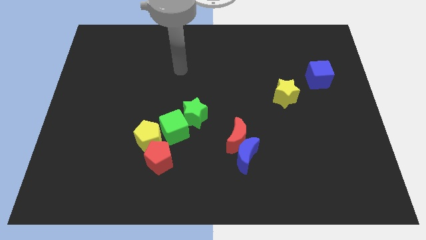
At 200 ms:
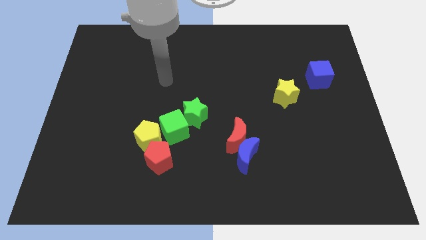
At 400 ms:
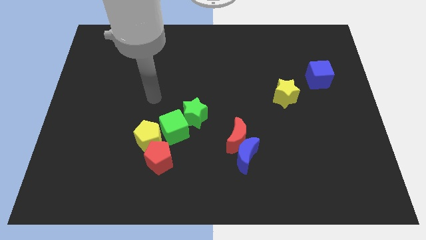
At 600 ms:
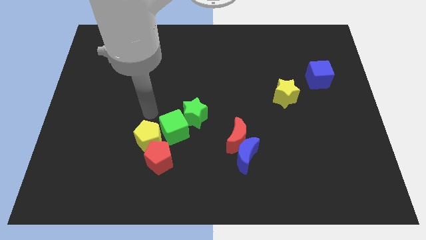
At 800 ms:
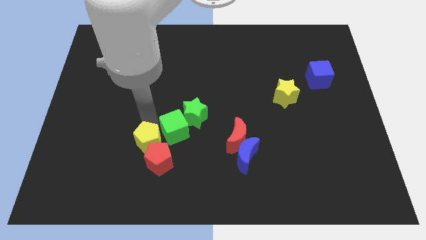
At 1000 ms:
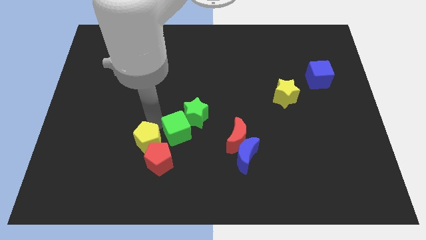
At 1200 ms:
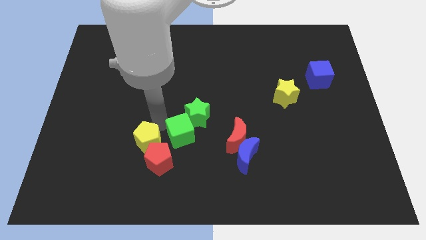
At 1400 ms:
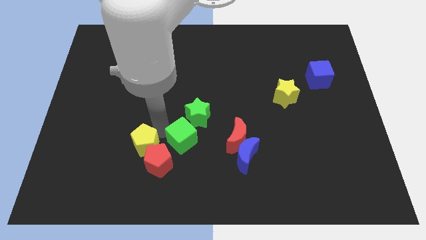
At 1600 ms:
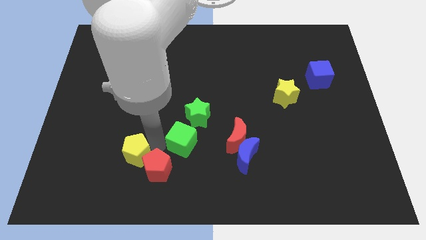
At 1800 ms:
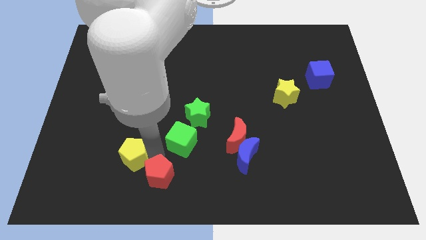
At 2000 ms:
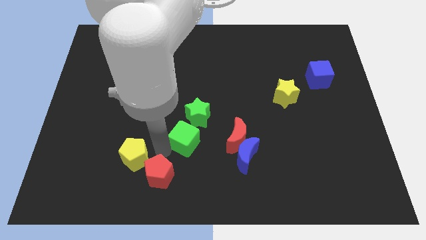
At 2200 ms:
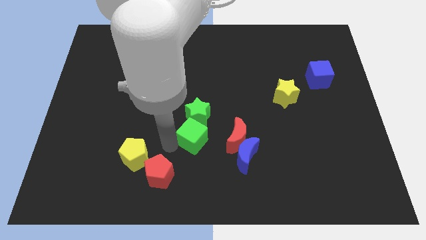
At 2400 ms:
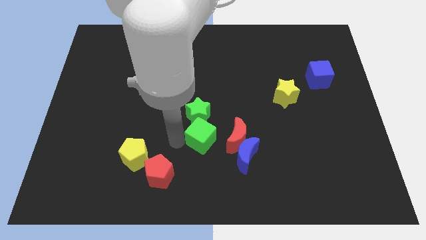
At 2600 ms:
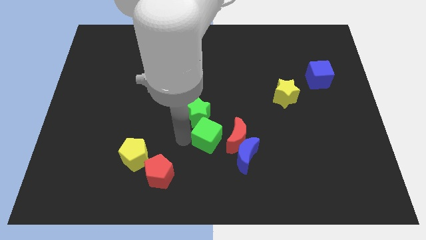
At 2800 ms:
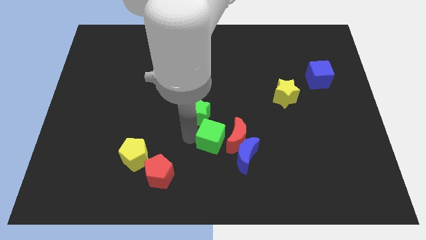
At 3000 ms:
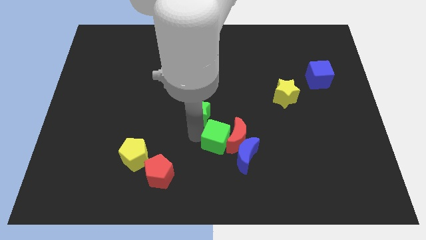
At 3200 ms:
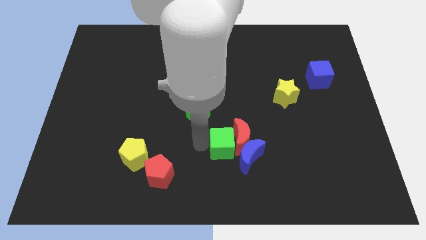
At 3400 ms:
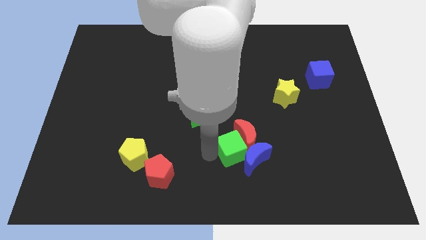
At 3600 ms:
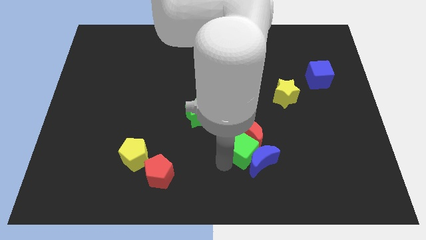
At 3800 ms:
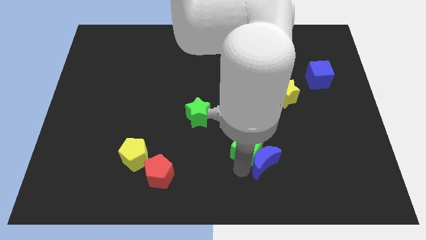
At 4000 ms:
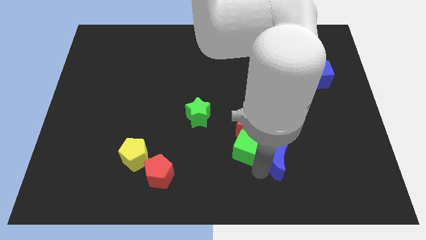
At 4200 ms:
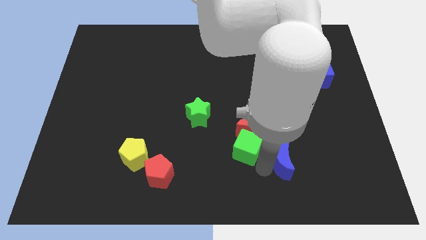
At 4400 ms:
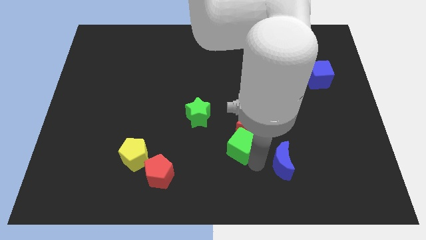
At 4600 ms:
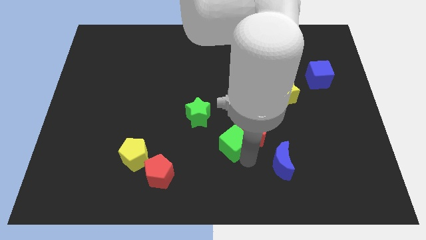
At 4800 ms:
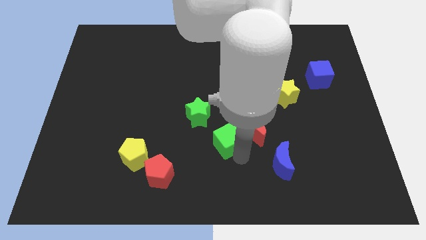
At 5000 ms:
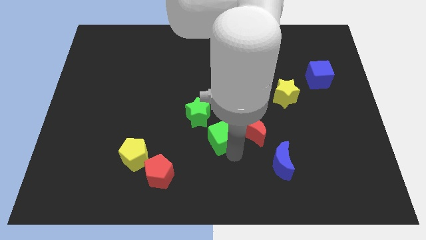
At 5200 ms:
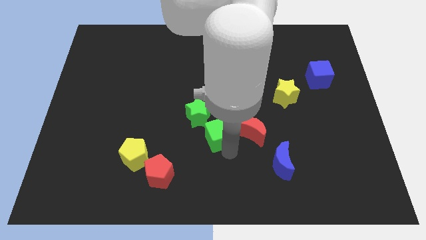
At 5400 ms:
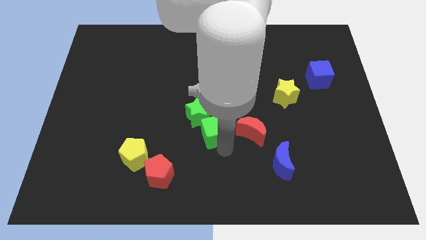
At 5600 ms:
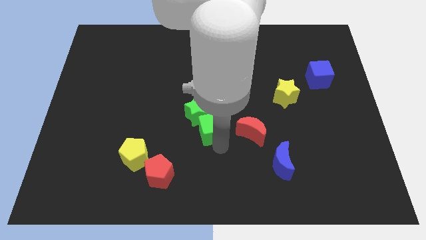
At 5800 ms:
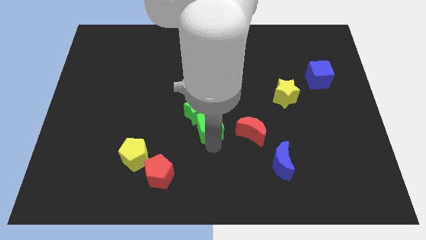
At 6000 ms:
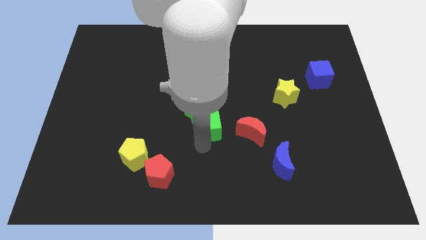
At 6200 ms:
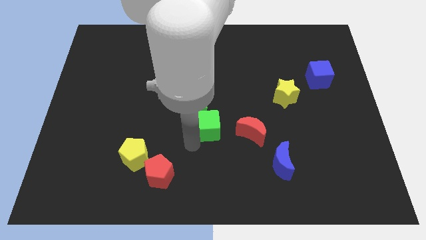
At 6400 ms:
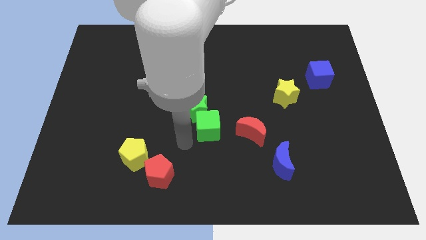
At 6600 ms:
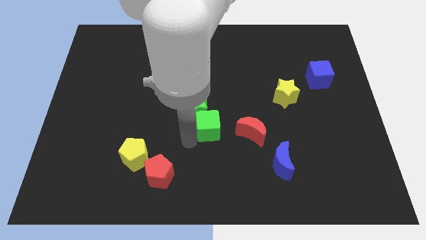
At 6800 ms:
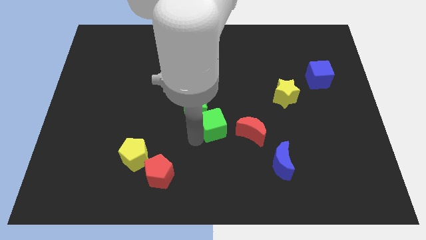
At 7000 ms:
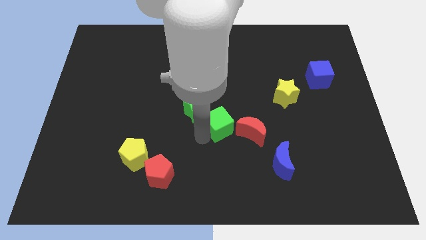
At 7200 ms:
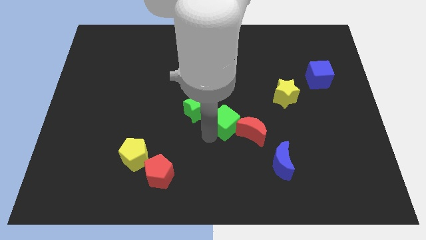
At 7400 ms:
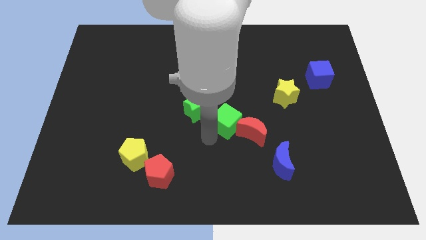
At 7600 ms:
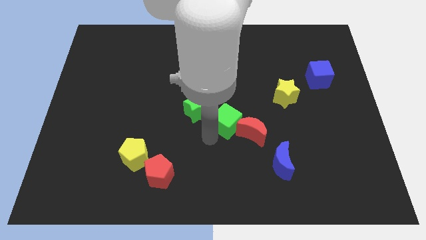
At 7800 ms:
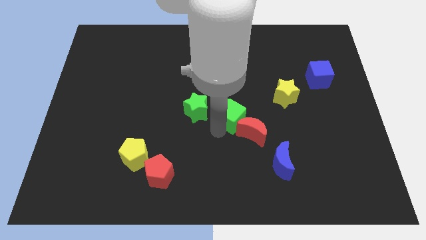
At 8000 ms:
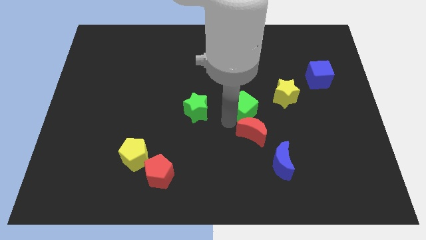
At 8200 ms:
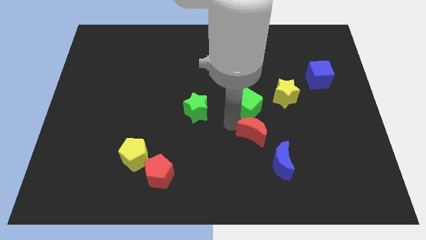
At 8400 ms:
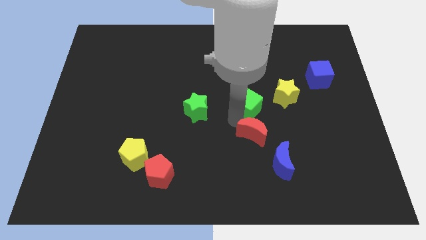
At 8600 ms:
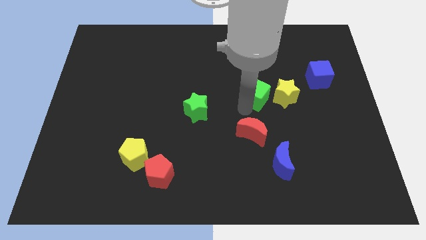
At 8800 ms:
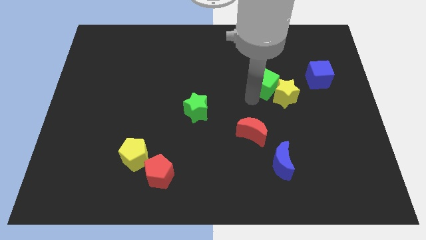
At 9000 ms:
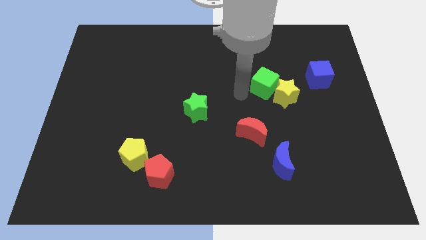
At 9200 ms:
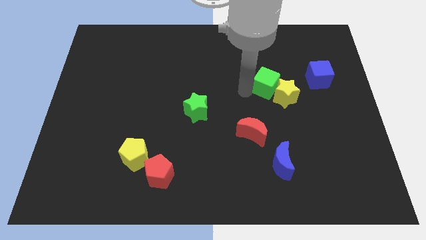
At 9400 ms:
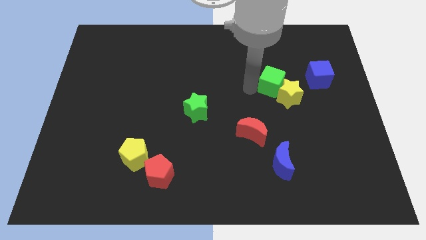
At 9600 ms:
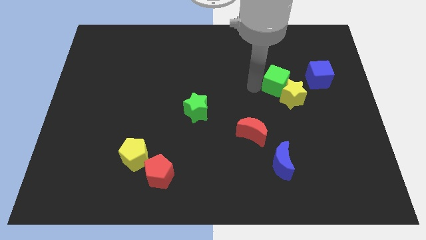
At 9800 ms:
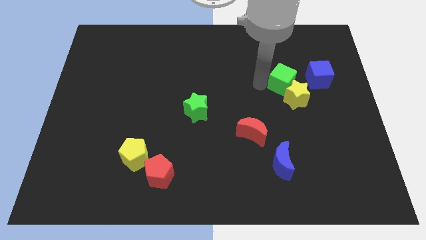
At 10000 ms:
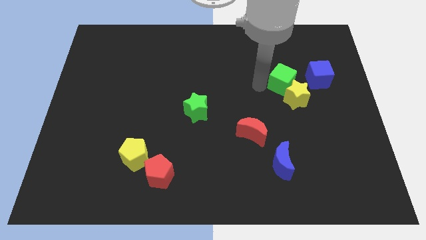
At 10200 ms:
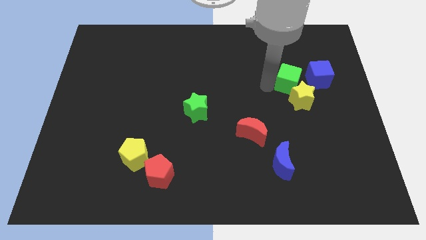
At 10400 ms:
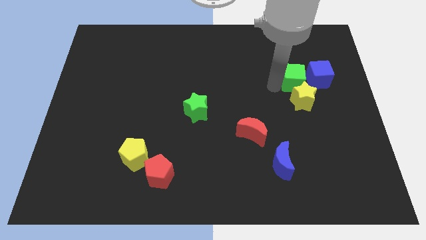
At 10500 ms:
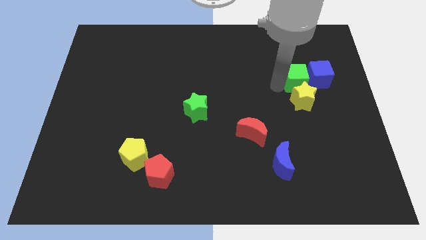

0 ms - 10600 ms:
move the green cube next to the blue cube

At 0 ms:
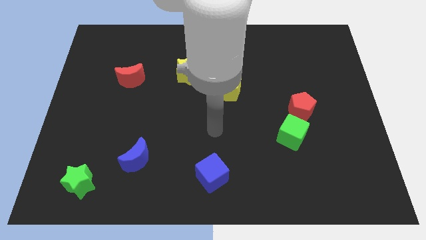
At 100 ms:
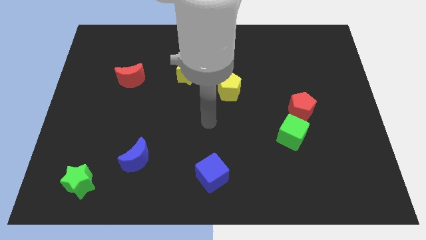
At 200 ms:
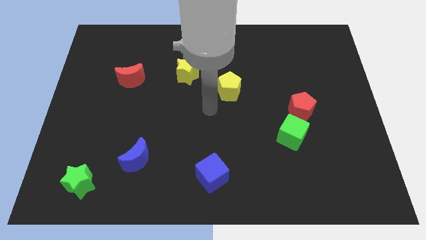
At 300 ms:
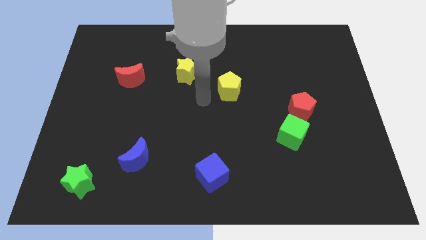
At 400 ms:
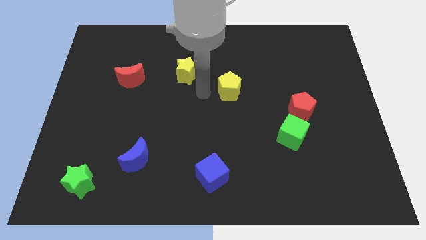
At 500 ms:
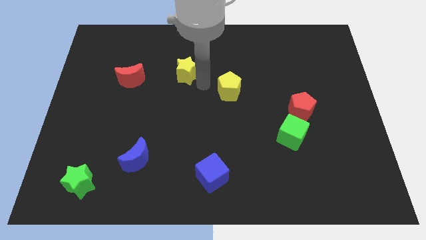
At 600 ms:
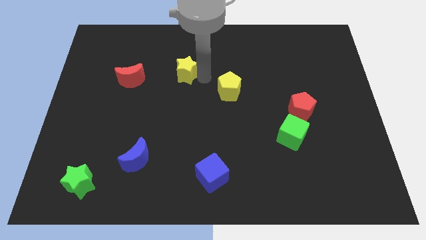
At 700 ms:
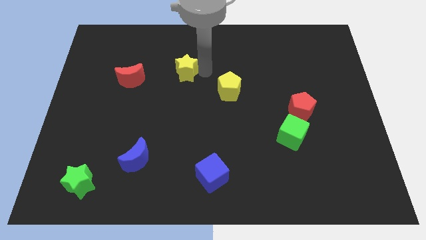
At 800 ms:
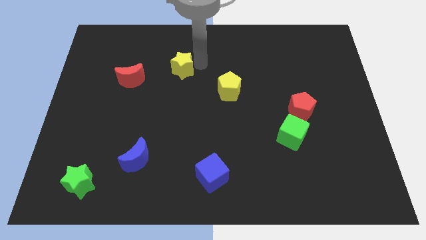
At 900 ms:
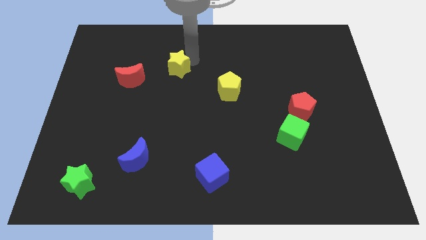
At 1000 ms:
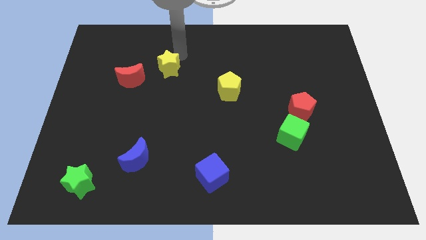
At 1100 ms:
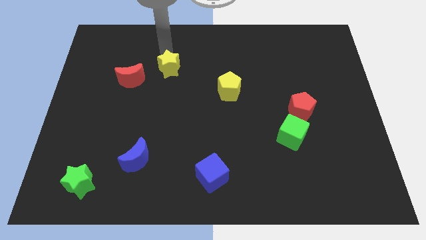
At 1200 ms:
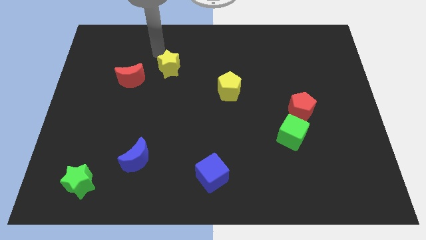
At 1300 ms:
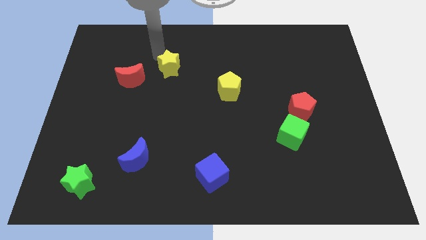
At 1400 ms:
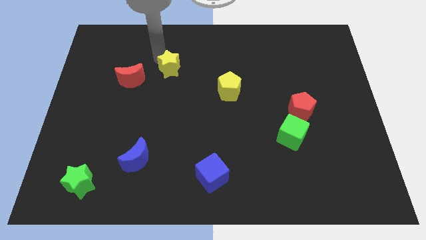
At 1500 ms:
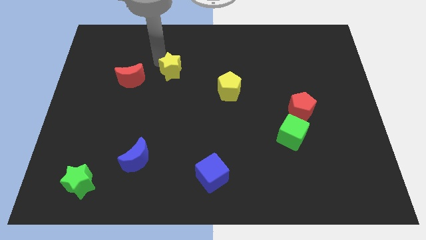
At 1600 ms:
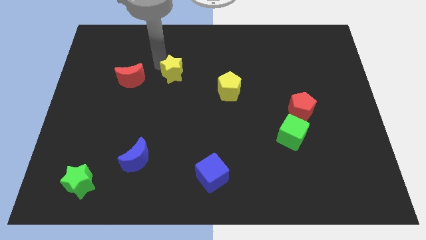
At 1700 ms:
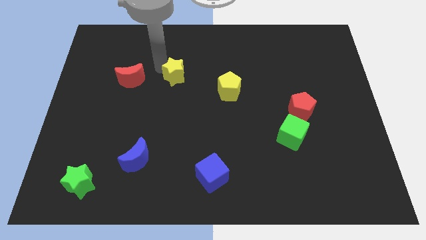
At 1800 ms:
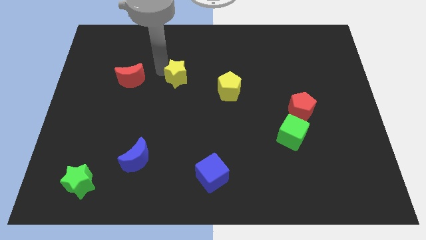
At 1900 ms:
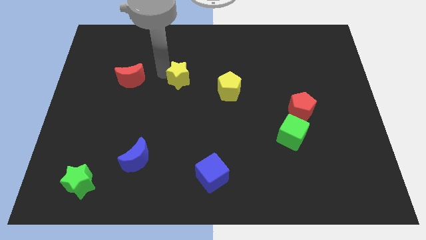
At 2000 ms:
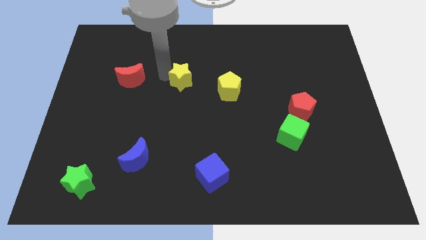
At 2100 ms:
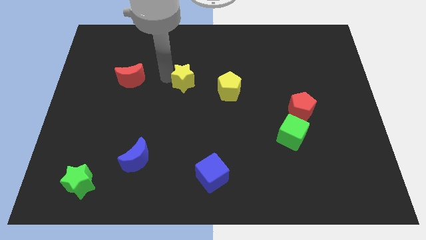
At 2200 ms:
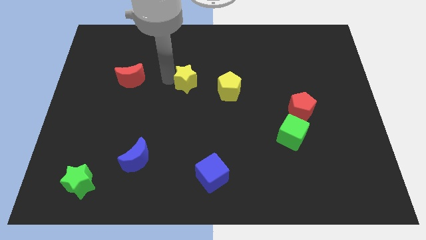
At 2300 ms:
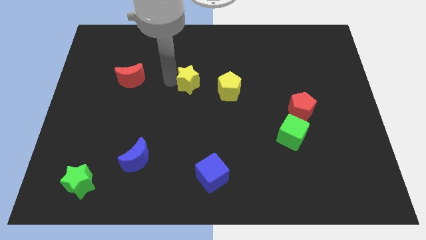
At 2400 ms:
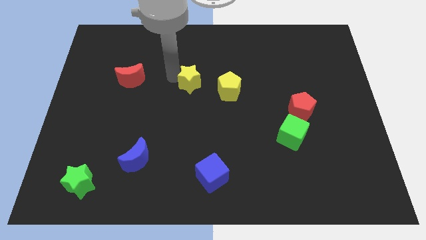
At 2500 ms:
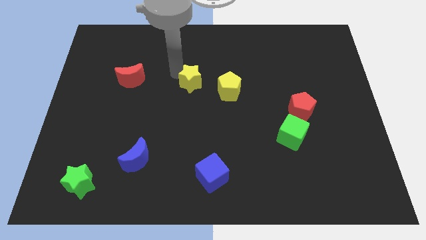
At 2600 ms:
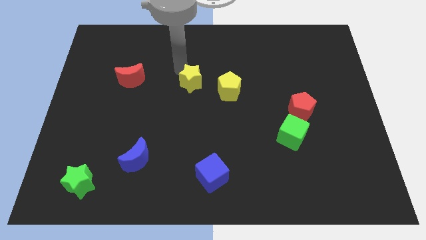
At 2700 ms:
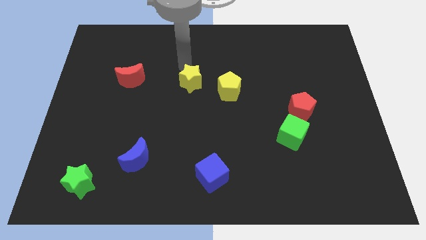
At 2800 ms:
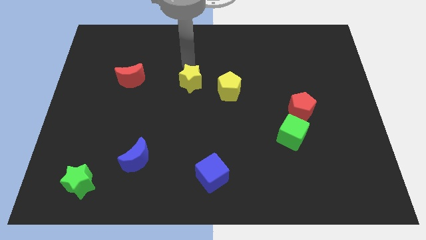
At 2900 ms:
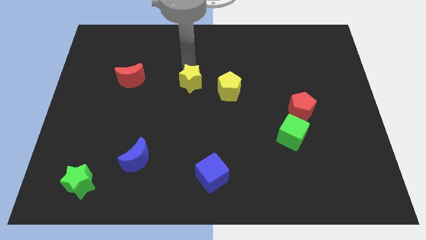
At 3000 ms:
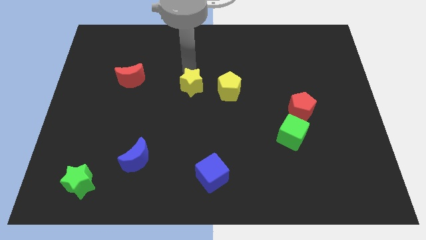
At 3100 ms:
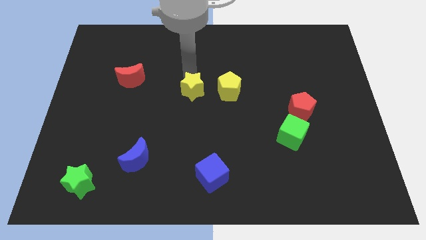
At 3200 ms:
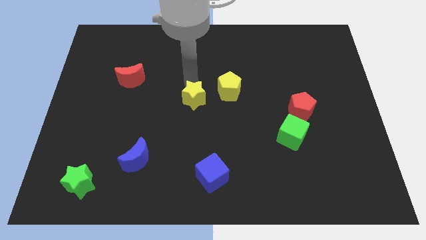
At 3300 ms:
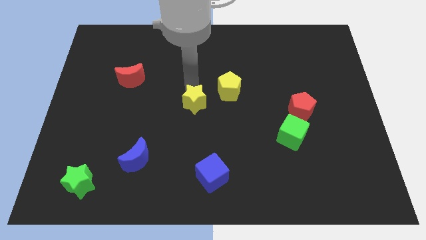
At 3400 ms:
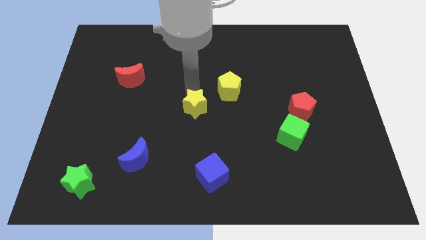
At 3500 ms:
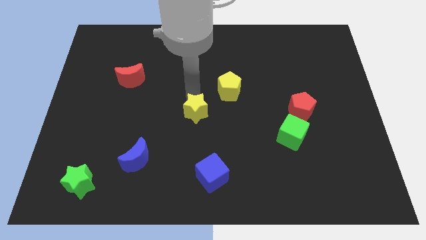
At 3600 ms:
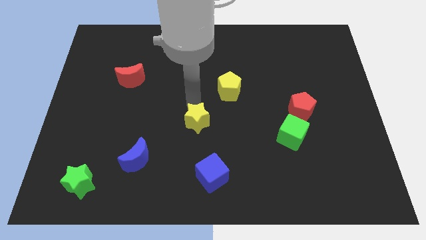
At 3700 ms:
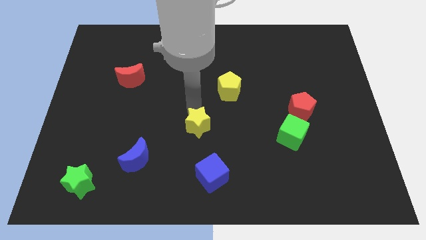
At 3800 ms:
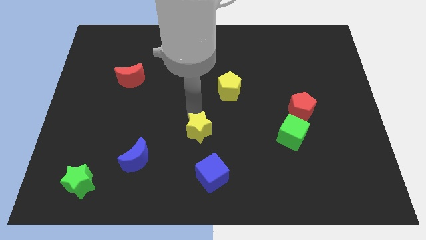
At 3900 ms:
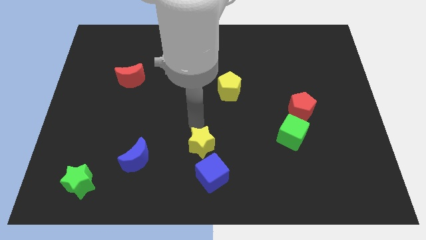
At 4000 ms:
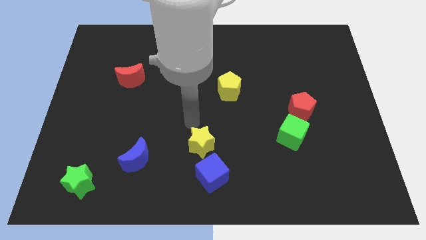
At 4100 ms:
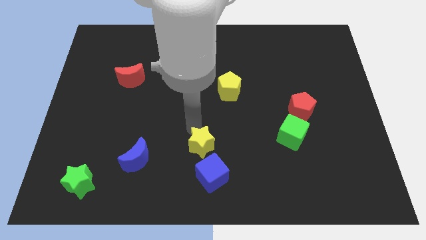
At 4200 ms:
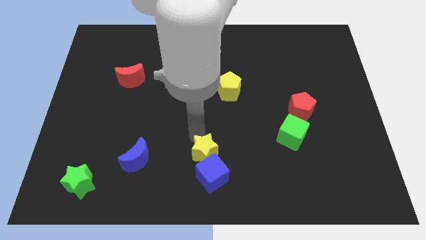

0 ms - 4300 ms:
slide the yellow star close to the blue cube
